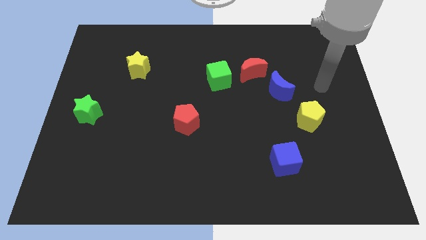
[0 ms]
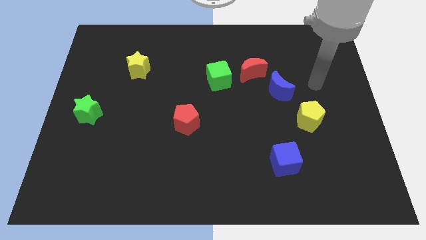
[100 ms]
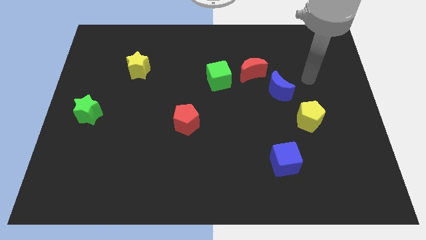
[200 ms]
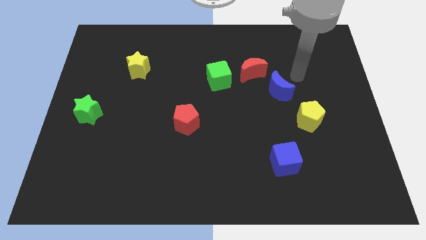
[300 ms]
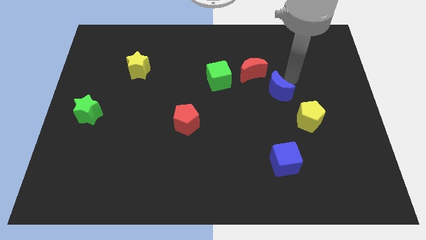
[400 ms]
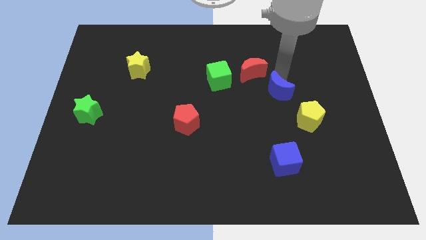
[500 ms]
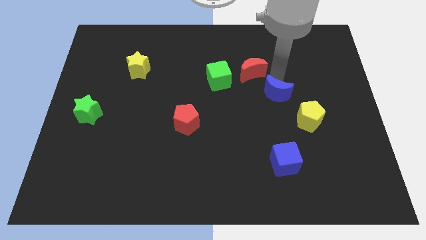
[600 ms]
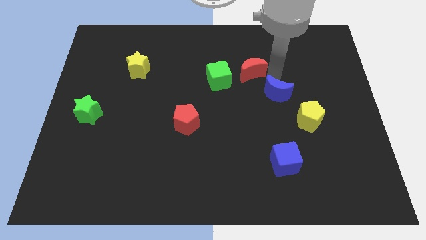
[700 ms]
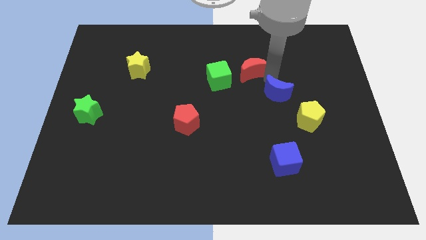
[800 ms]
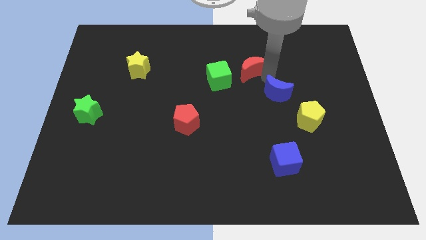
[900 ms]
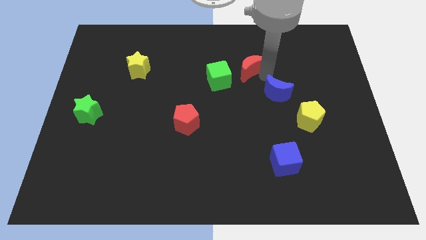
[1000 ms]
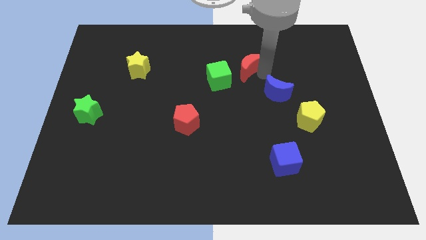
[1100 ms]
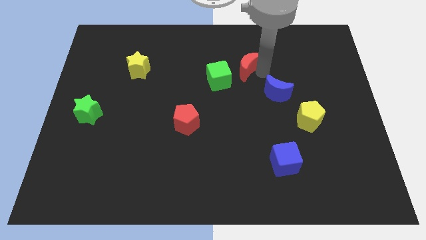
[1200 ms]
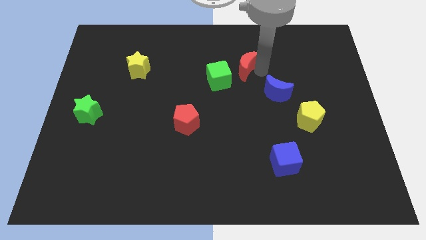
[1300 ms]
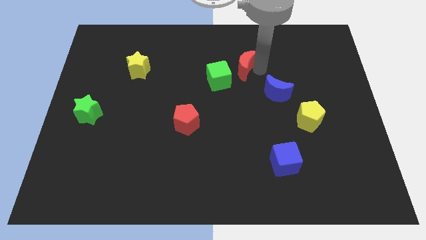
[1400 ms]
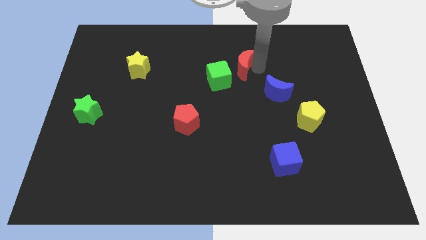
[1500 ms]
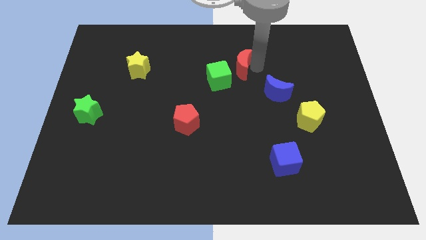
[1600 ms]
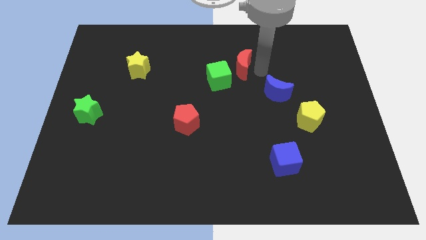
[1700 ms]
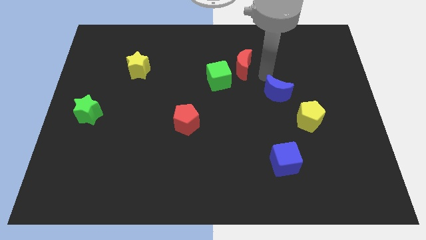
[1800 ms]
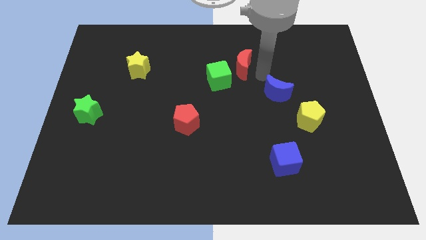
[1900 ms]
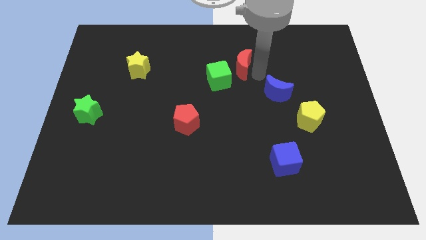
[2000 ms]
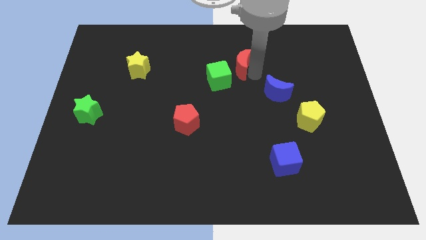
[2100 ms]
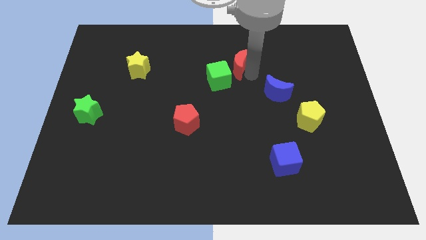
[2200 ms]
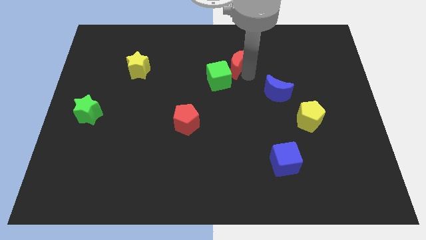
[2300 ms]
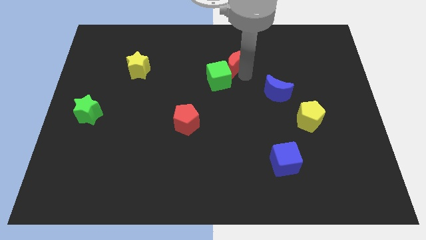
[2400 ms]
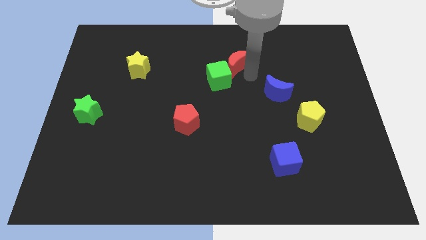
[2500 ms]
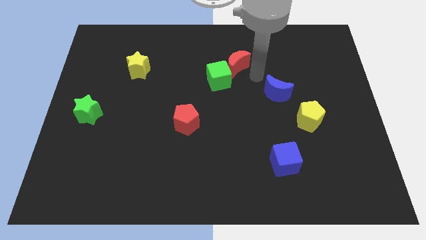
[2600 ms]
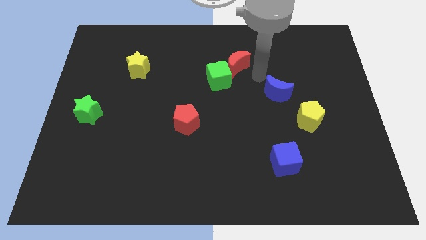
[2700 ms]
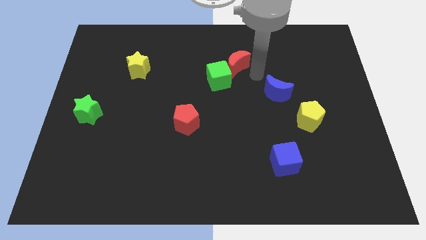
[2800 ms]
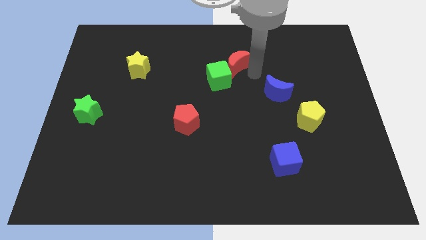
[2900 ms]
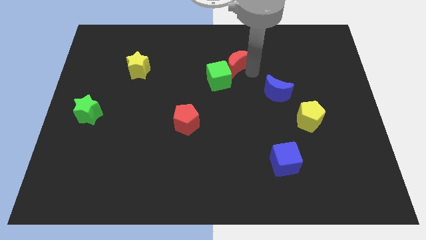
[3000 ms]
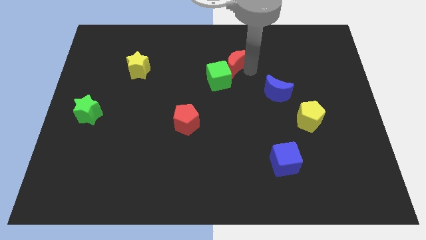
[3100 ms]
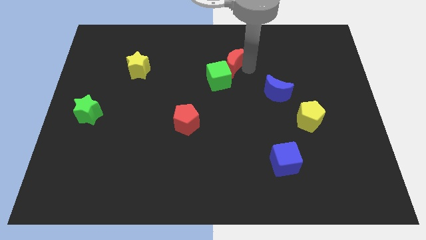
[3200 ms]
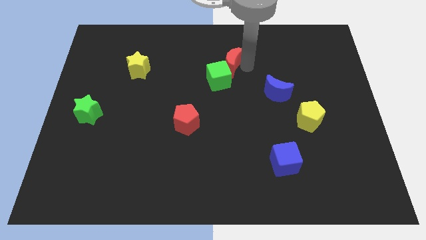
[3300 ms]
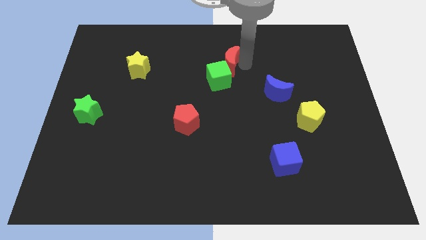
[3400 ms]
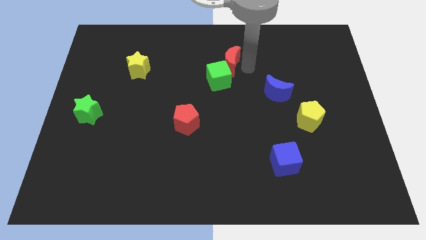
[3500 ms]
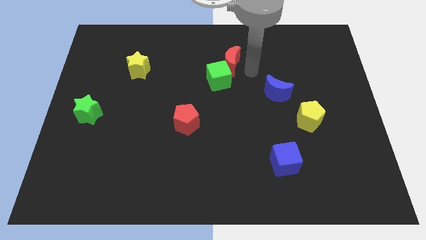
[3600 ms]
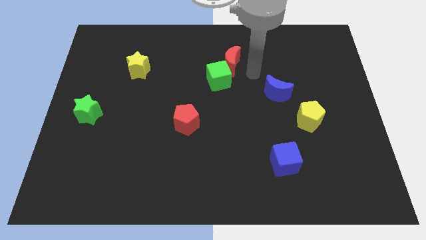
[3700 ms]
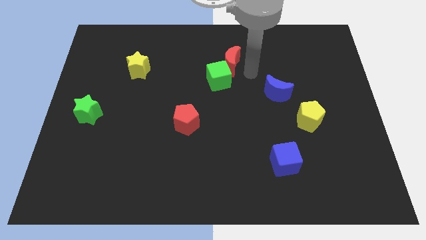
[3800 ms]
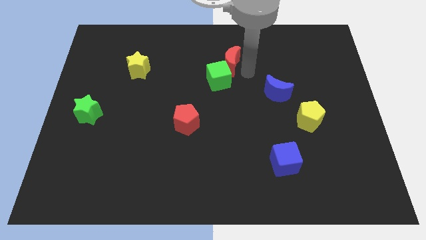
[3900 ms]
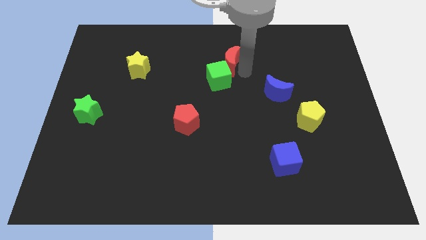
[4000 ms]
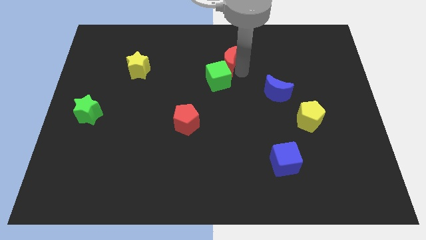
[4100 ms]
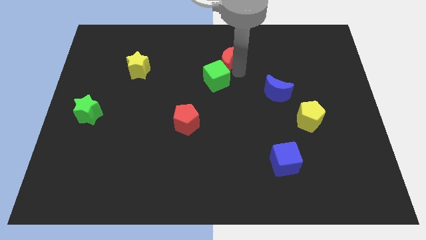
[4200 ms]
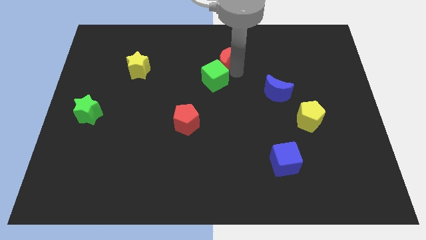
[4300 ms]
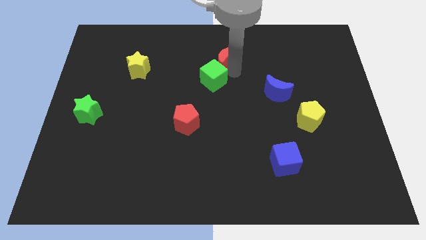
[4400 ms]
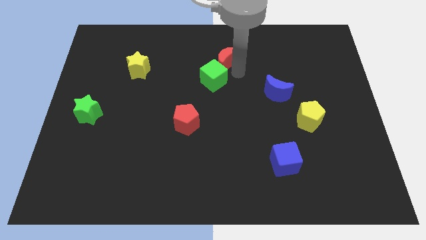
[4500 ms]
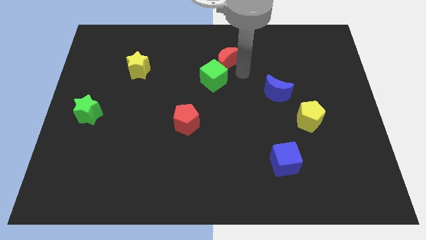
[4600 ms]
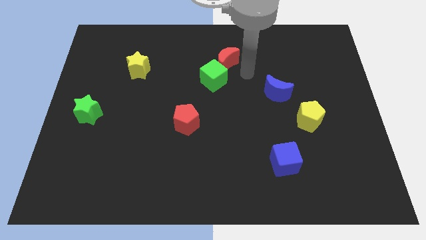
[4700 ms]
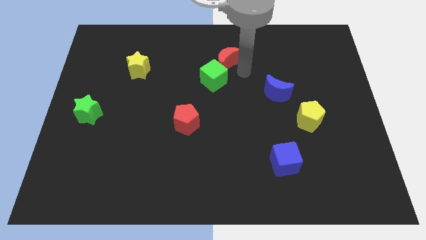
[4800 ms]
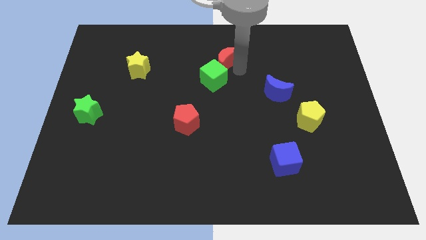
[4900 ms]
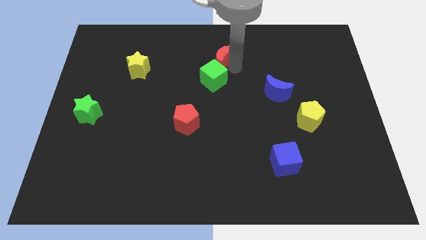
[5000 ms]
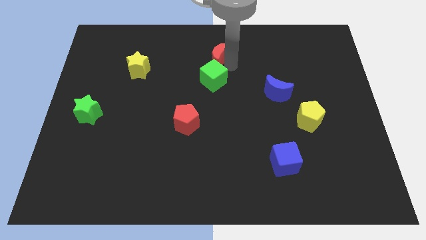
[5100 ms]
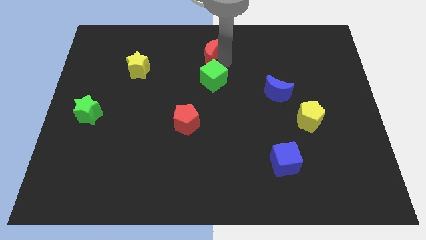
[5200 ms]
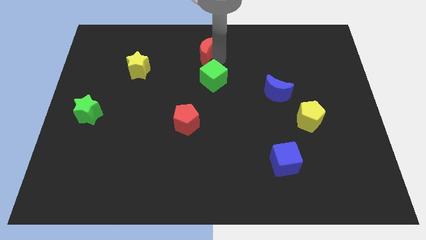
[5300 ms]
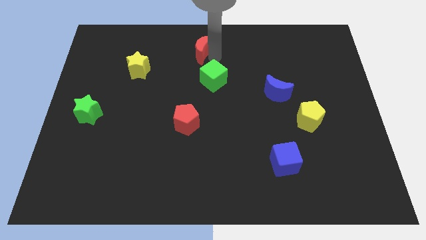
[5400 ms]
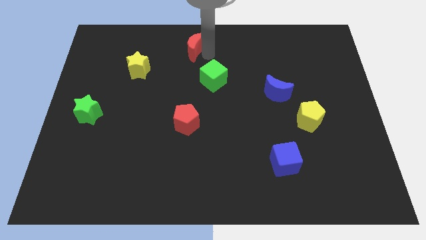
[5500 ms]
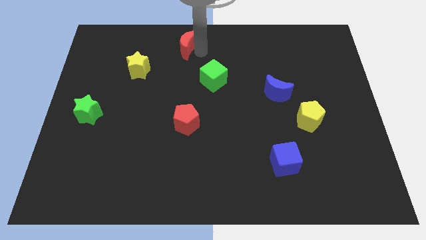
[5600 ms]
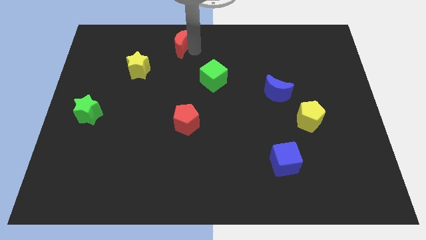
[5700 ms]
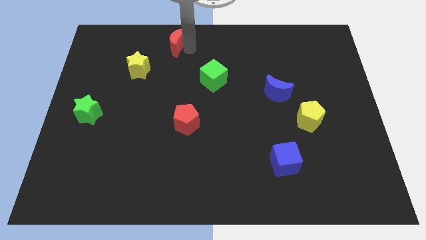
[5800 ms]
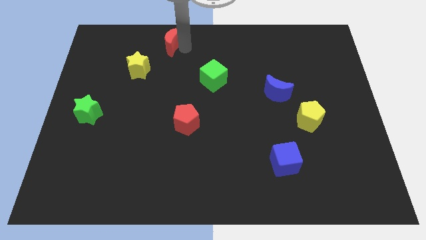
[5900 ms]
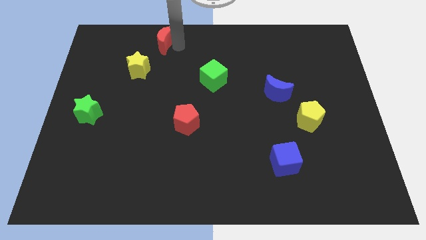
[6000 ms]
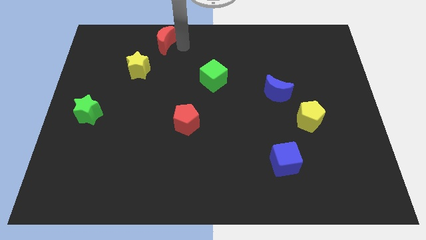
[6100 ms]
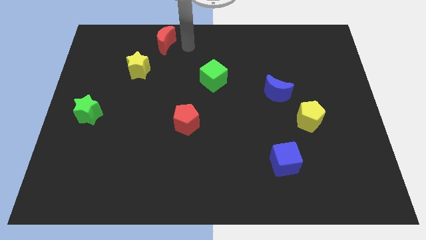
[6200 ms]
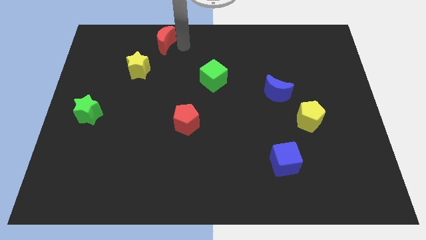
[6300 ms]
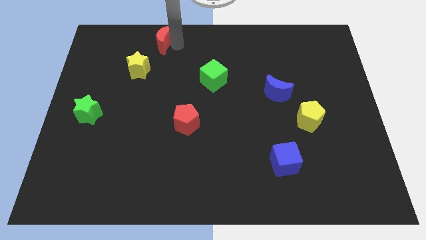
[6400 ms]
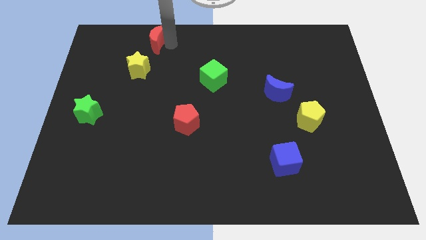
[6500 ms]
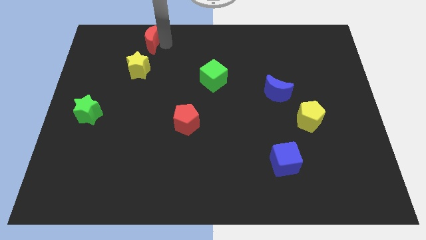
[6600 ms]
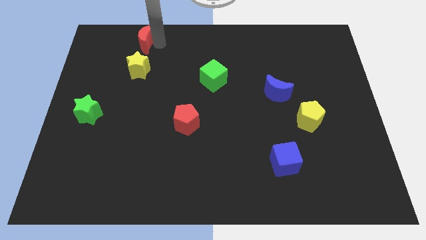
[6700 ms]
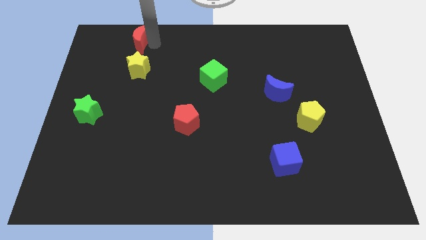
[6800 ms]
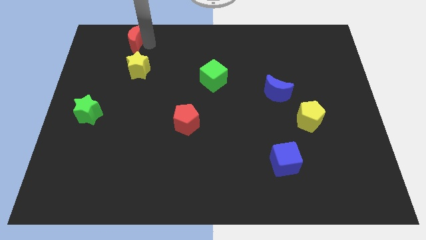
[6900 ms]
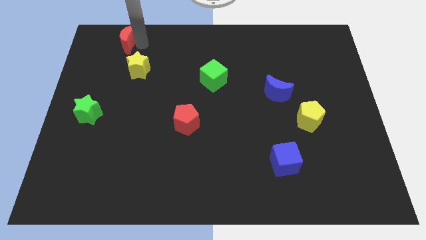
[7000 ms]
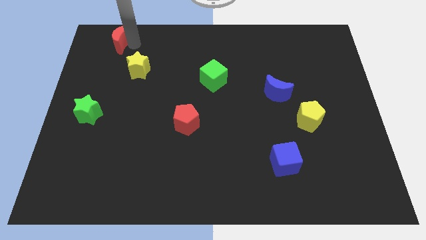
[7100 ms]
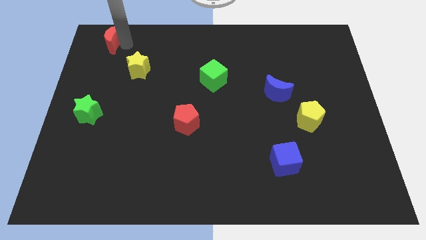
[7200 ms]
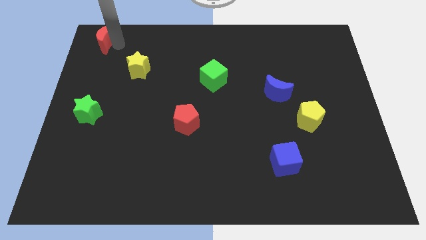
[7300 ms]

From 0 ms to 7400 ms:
move the red moon to the top left of the board
